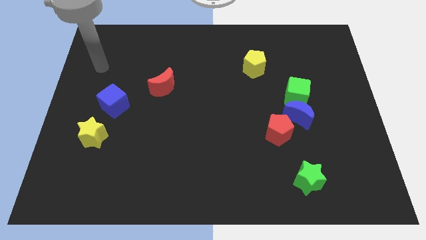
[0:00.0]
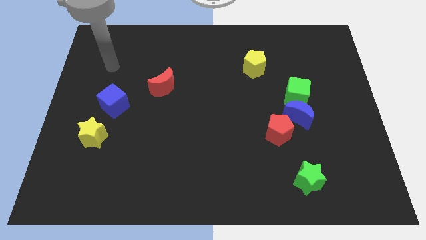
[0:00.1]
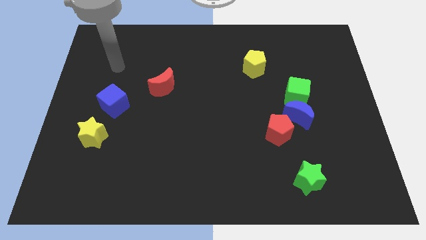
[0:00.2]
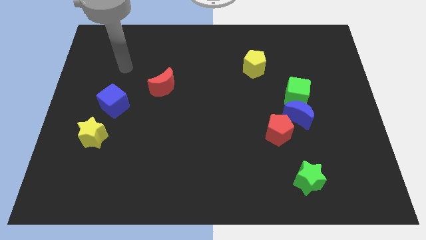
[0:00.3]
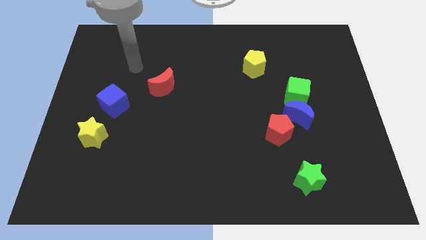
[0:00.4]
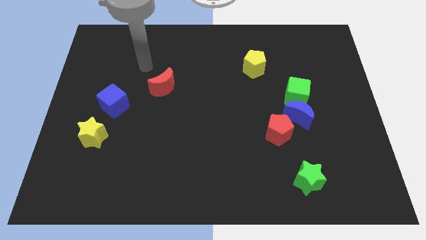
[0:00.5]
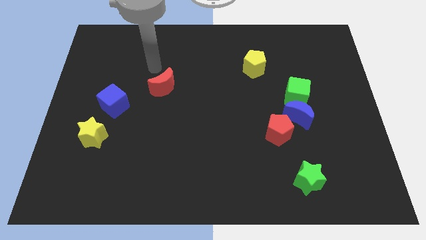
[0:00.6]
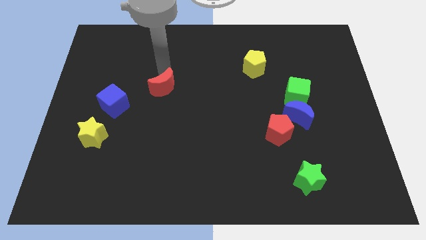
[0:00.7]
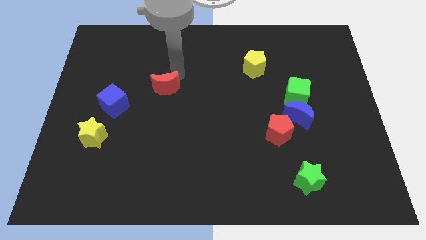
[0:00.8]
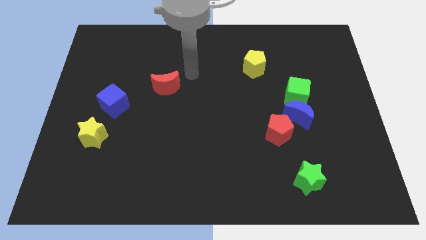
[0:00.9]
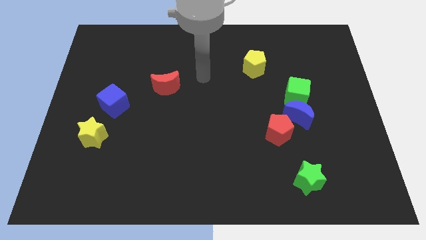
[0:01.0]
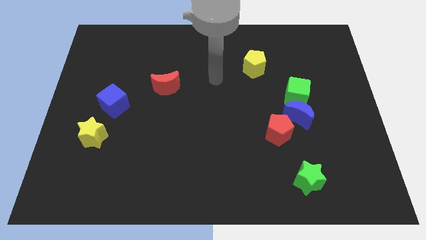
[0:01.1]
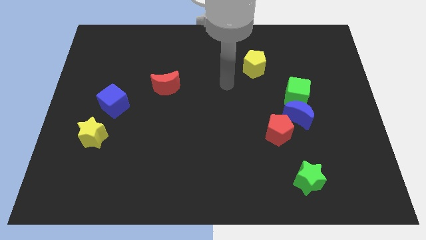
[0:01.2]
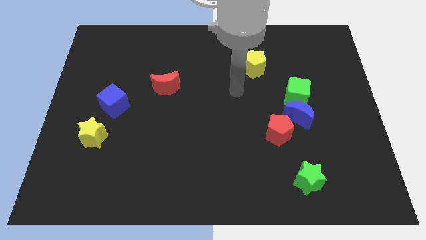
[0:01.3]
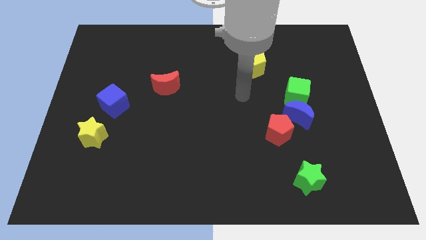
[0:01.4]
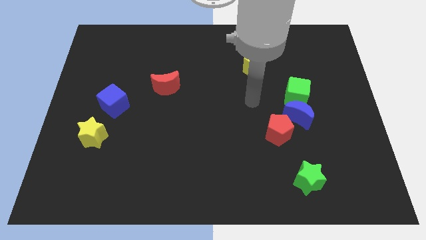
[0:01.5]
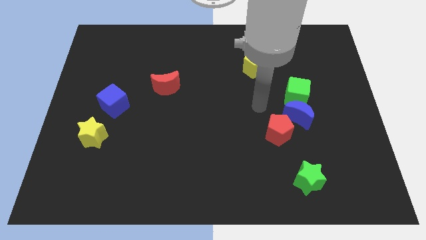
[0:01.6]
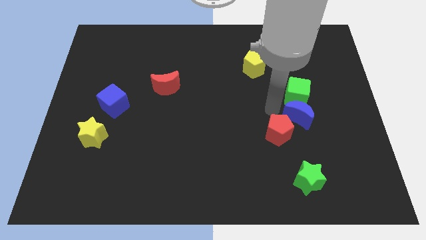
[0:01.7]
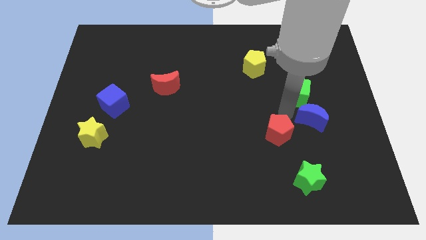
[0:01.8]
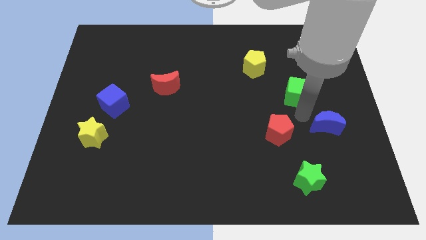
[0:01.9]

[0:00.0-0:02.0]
pull the green cube apart from the blue moon

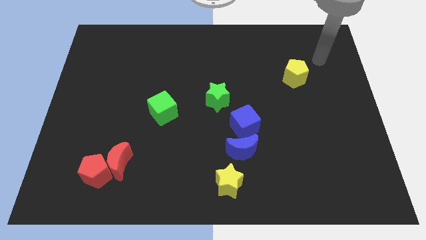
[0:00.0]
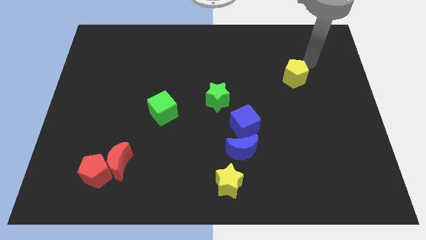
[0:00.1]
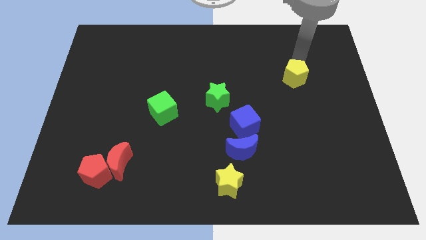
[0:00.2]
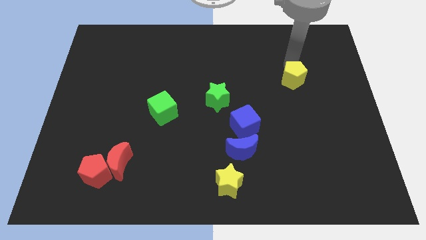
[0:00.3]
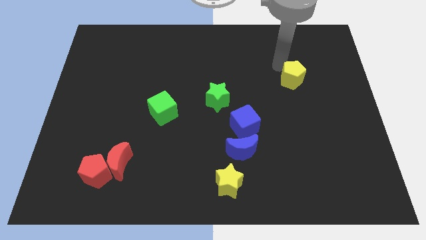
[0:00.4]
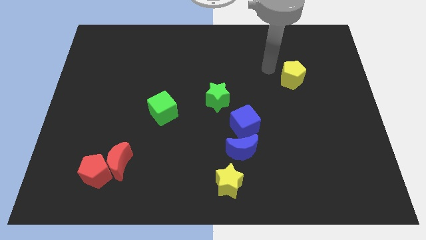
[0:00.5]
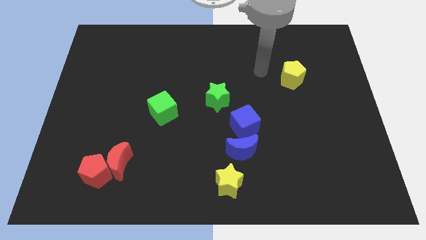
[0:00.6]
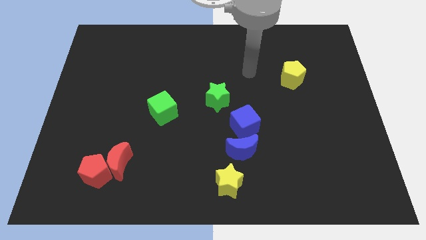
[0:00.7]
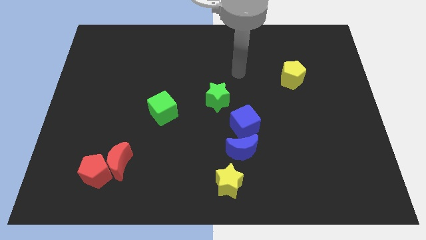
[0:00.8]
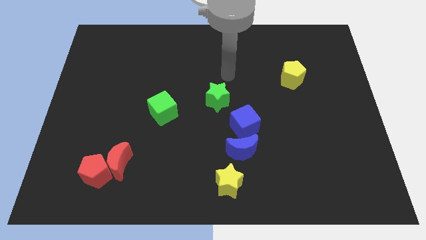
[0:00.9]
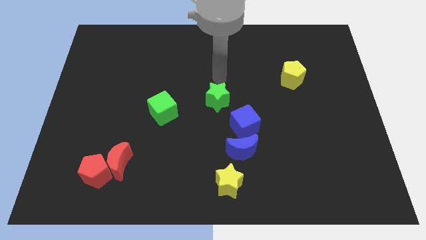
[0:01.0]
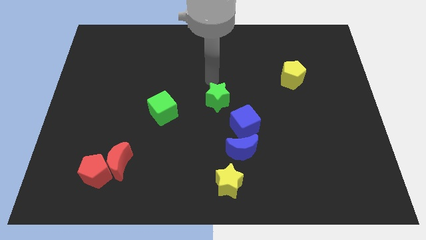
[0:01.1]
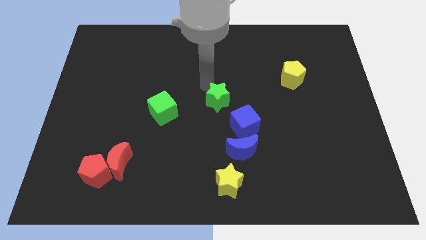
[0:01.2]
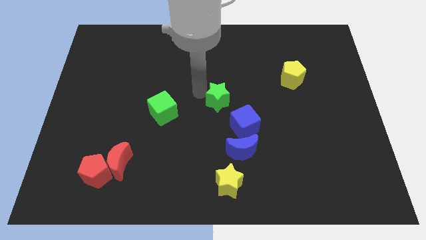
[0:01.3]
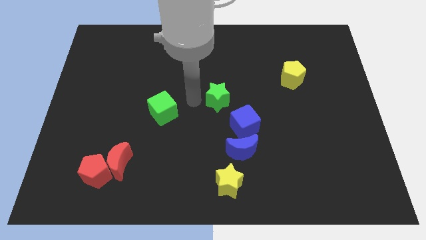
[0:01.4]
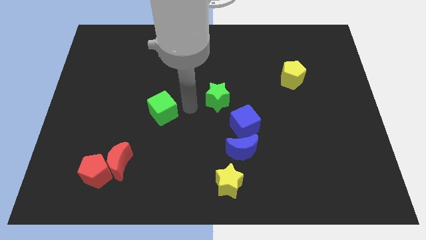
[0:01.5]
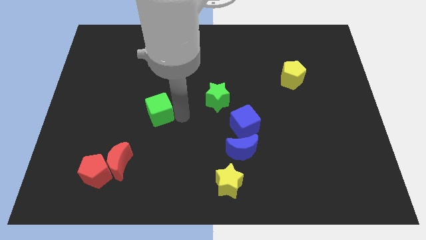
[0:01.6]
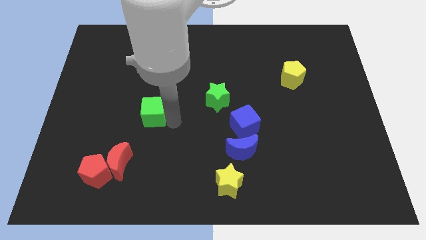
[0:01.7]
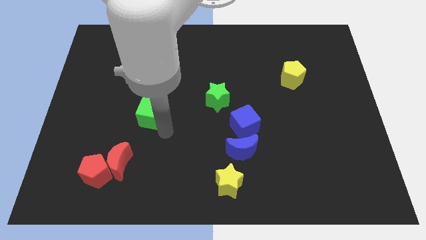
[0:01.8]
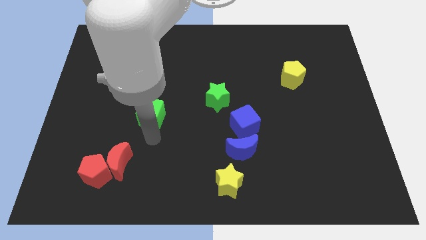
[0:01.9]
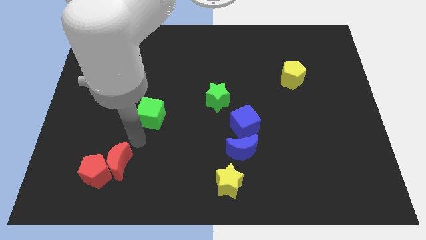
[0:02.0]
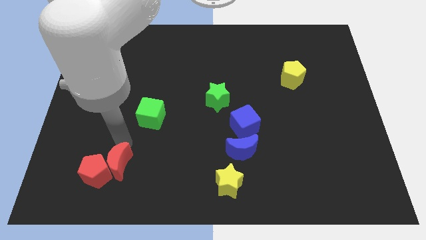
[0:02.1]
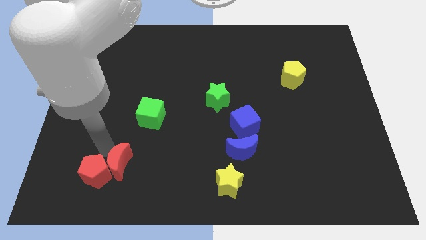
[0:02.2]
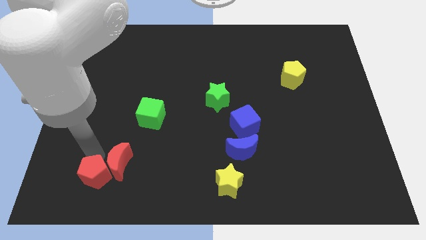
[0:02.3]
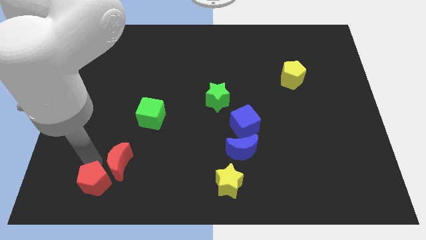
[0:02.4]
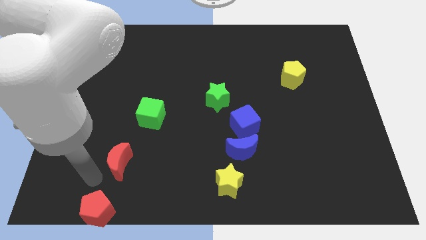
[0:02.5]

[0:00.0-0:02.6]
move the red moon away from the red pentagon

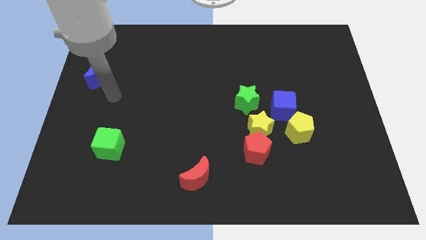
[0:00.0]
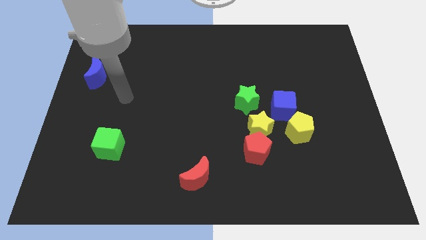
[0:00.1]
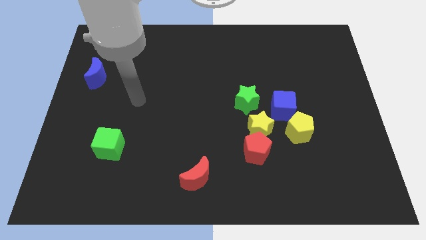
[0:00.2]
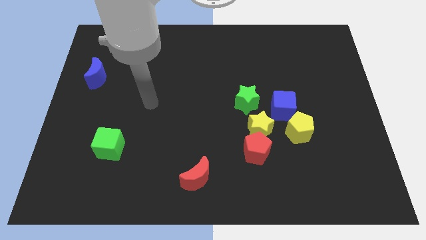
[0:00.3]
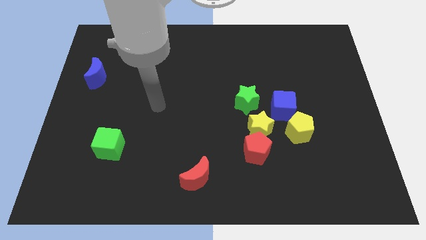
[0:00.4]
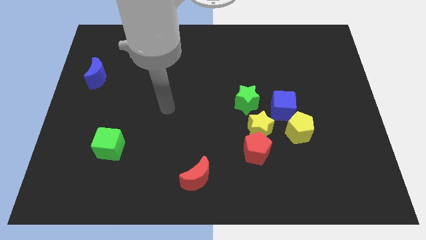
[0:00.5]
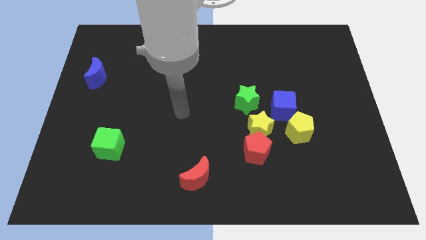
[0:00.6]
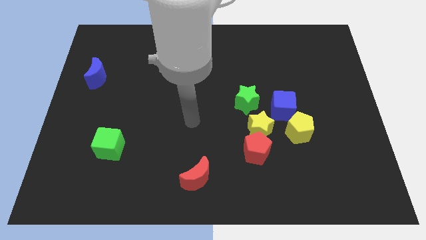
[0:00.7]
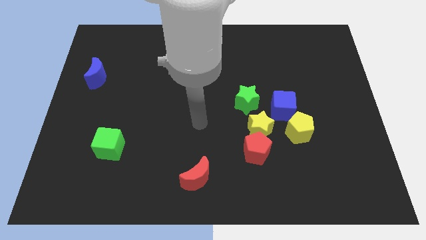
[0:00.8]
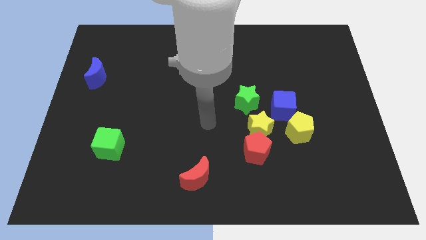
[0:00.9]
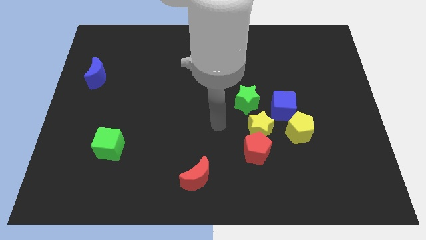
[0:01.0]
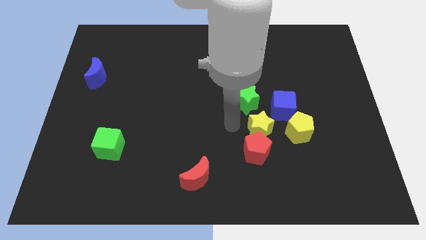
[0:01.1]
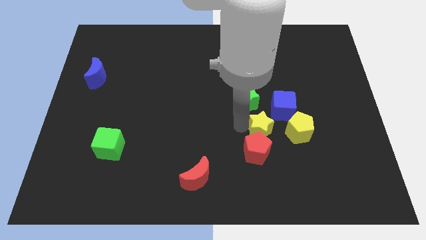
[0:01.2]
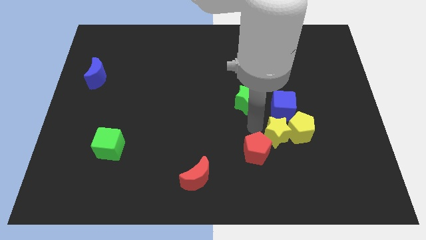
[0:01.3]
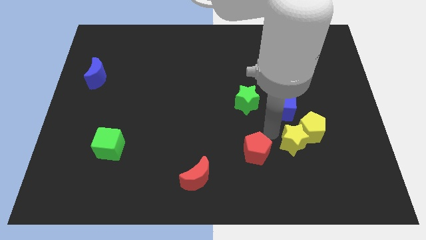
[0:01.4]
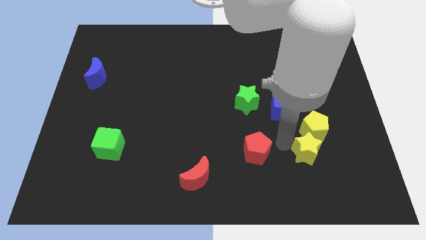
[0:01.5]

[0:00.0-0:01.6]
move the red pentagon away from the yellow star

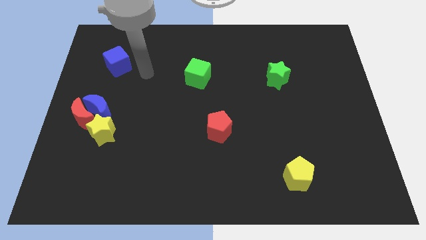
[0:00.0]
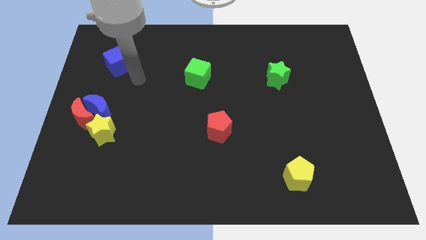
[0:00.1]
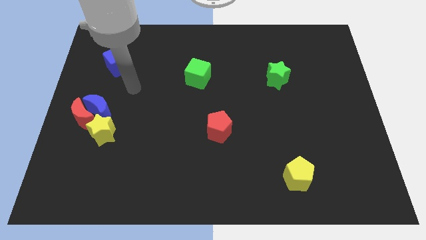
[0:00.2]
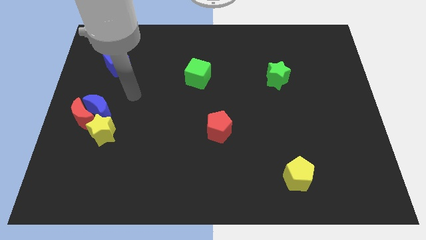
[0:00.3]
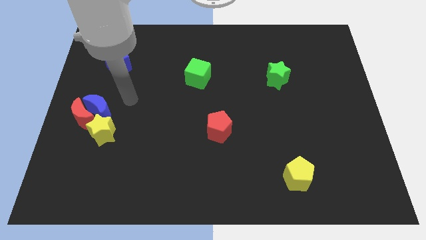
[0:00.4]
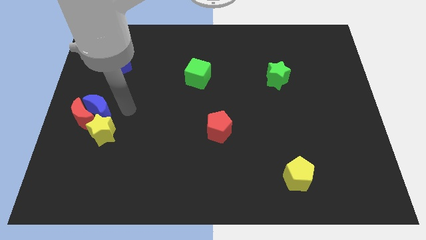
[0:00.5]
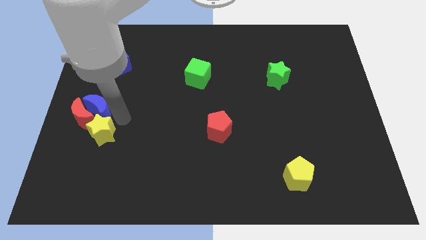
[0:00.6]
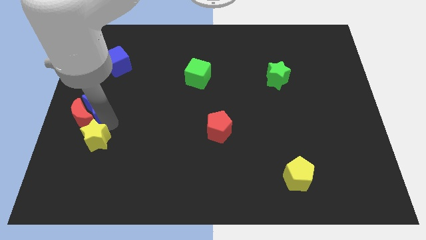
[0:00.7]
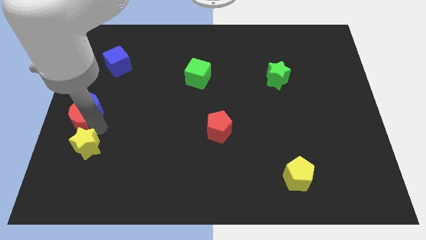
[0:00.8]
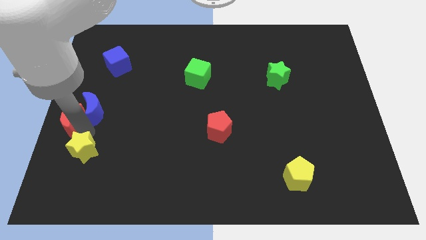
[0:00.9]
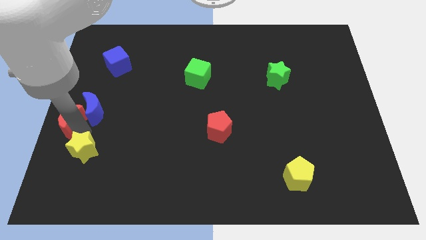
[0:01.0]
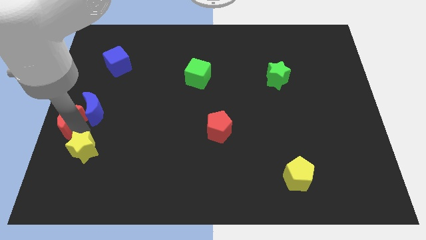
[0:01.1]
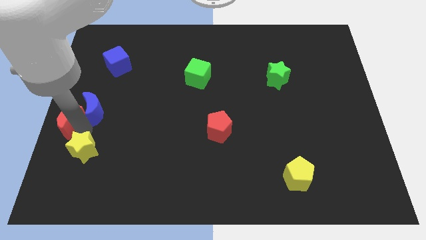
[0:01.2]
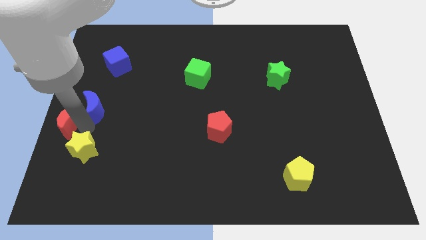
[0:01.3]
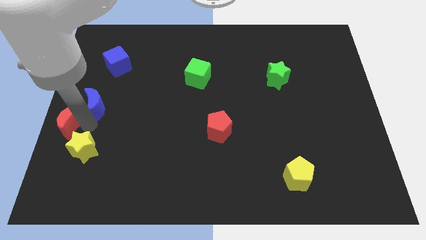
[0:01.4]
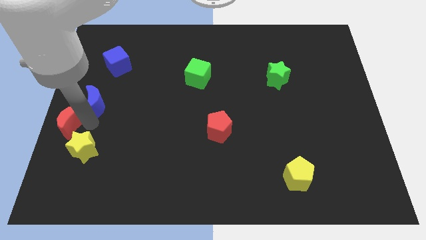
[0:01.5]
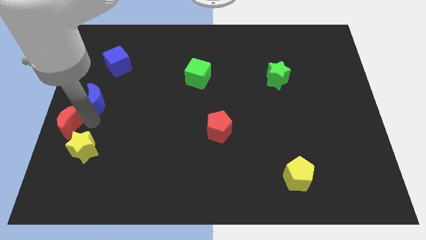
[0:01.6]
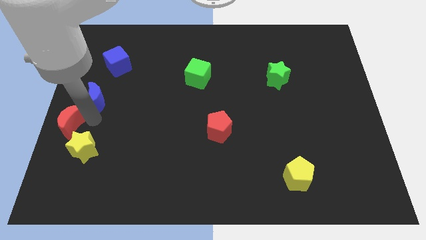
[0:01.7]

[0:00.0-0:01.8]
pull the blue moon apart from the red moon and yellow star

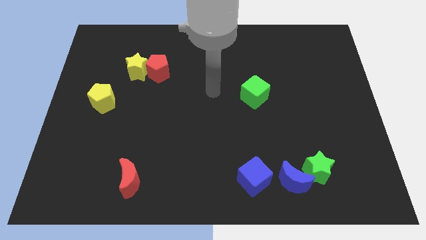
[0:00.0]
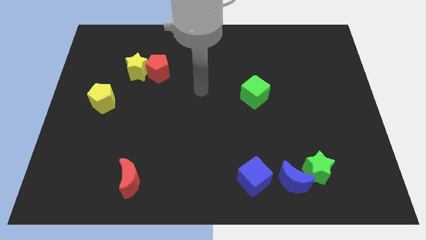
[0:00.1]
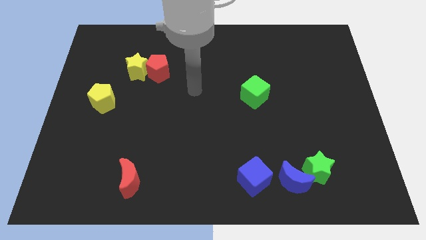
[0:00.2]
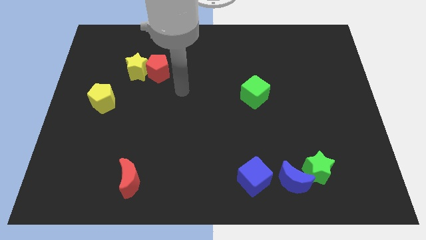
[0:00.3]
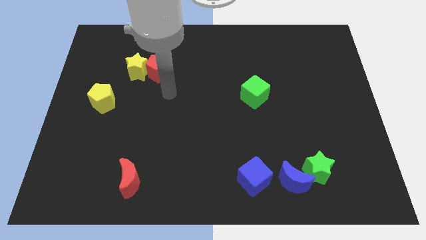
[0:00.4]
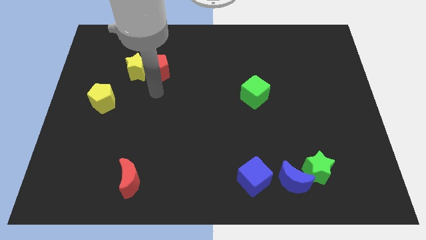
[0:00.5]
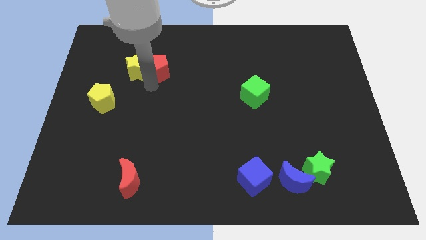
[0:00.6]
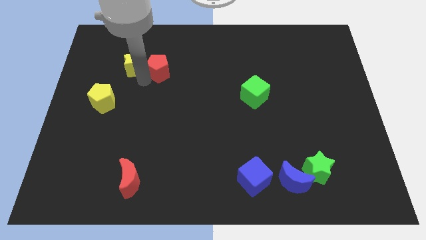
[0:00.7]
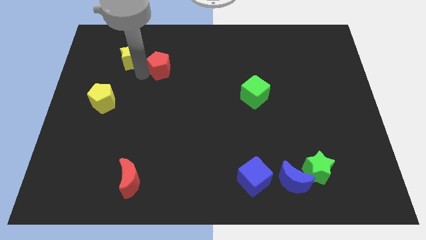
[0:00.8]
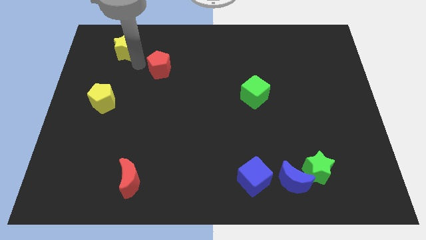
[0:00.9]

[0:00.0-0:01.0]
pull the red pentagon apart from the yellow star

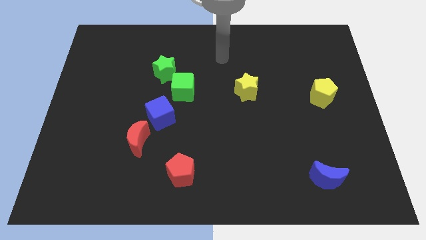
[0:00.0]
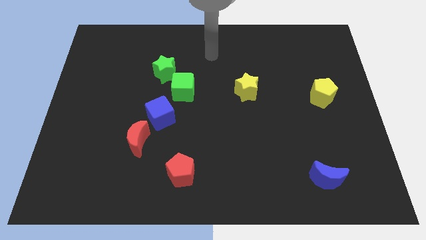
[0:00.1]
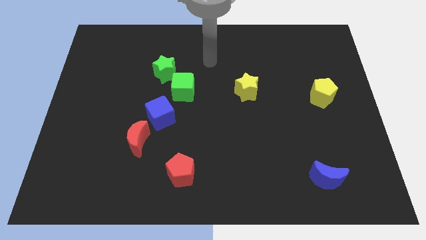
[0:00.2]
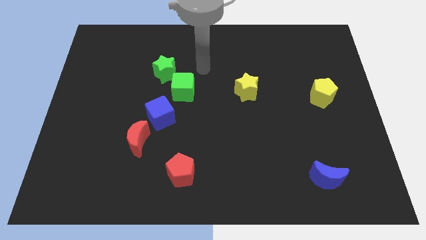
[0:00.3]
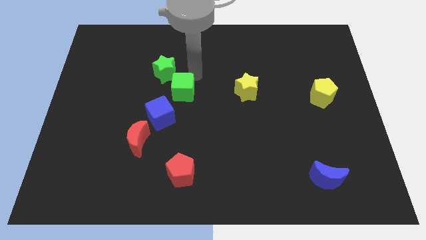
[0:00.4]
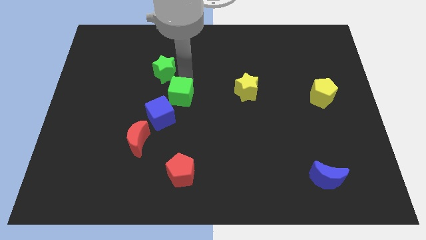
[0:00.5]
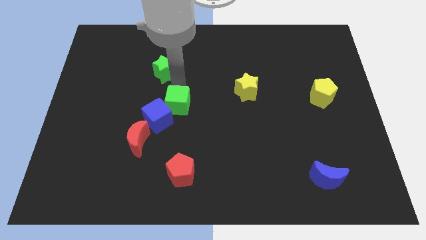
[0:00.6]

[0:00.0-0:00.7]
separate the green star from the green cube
